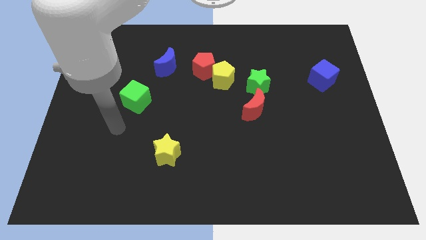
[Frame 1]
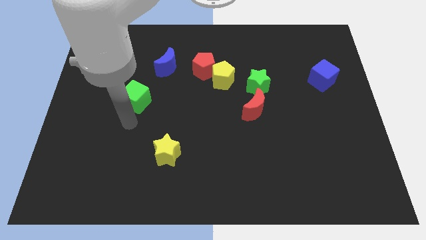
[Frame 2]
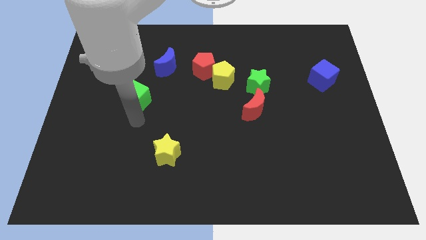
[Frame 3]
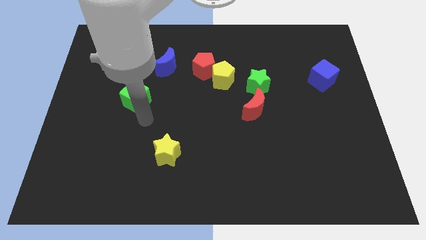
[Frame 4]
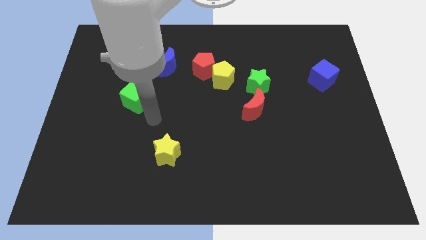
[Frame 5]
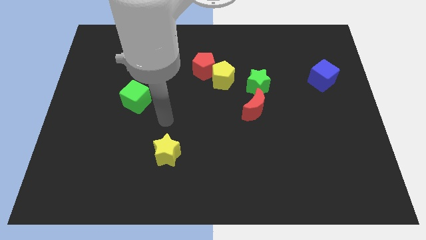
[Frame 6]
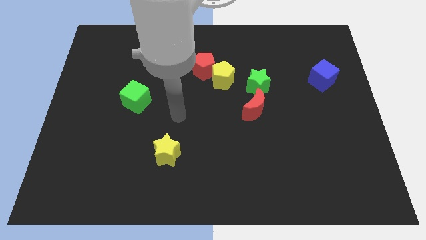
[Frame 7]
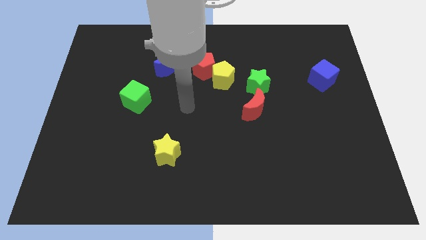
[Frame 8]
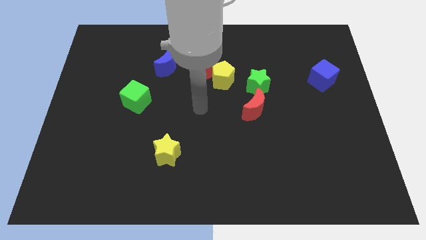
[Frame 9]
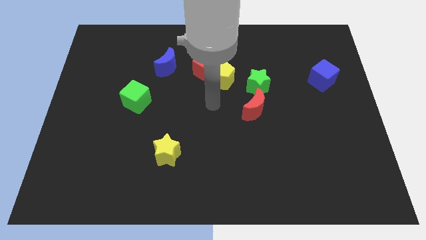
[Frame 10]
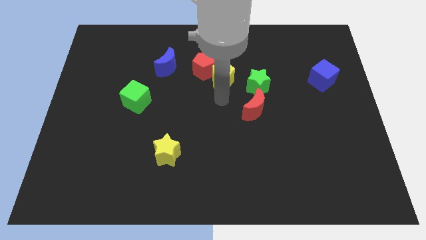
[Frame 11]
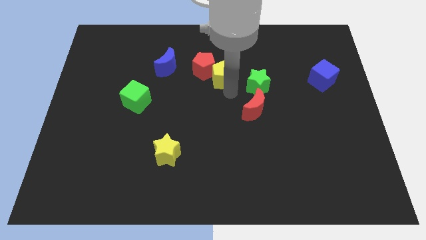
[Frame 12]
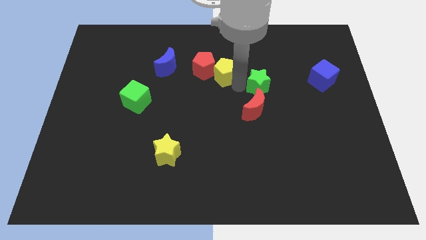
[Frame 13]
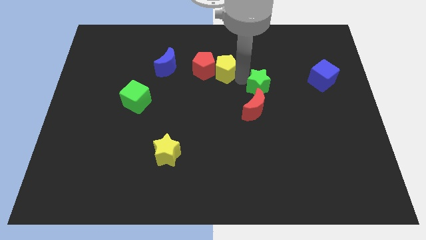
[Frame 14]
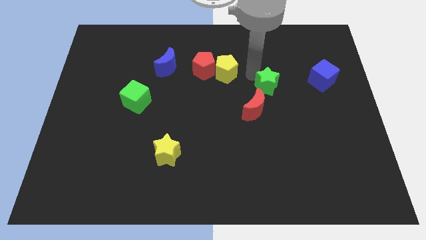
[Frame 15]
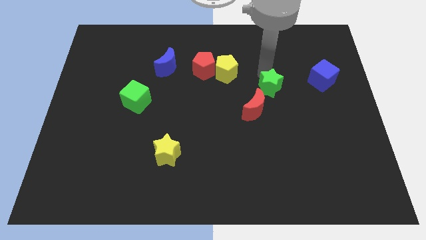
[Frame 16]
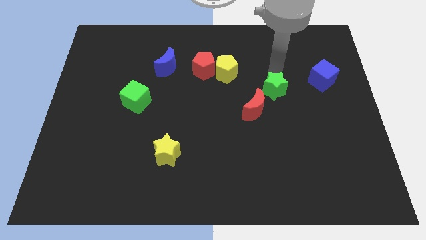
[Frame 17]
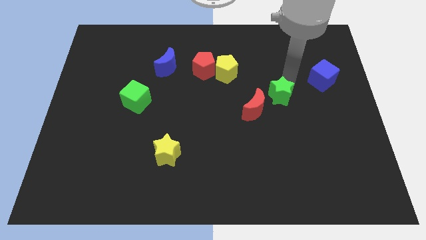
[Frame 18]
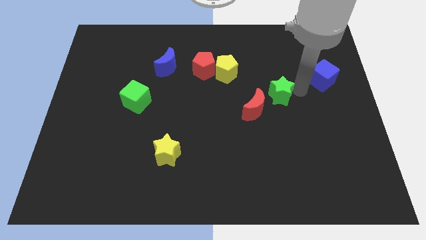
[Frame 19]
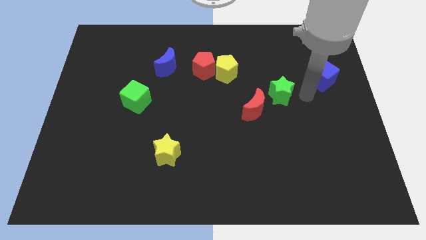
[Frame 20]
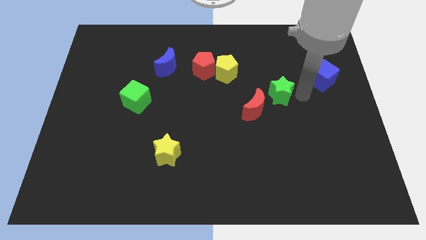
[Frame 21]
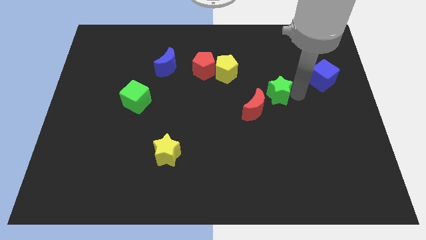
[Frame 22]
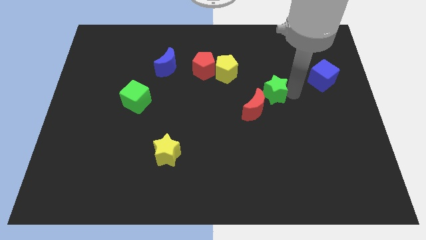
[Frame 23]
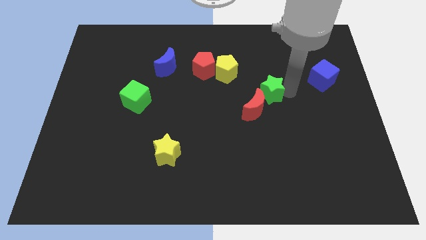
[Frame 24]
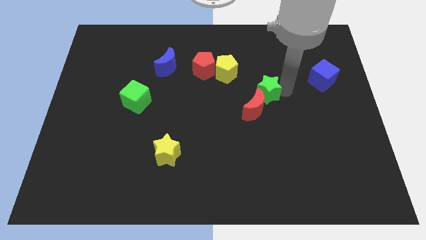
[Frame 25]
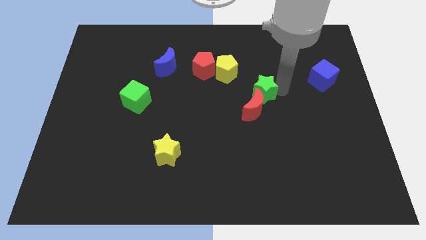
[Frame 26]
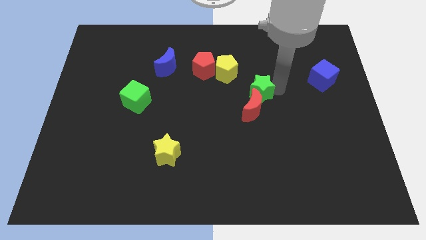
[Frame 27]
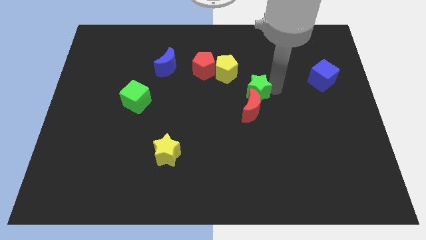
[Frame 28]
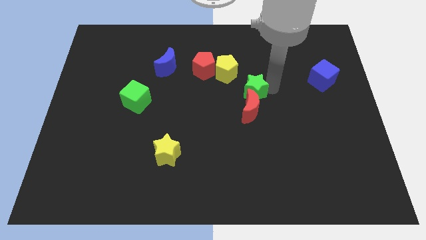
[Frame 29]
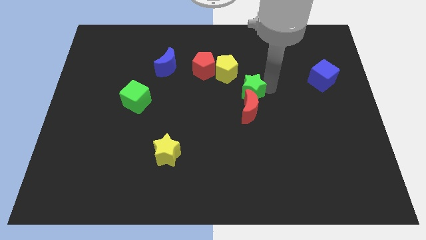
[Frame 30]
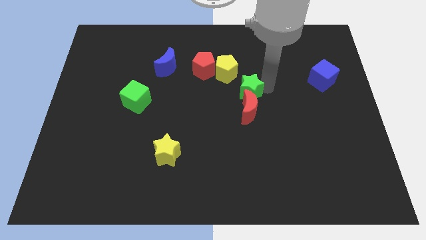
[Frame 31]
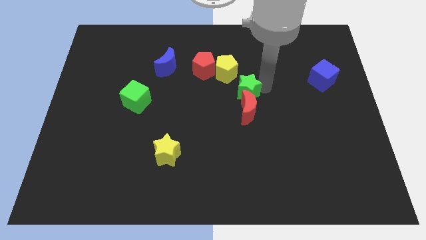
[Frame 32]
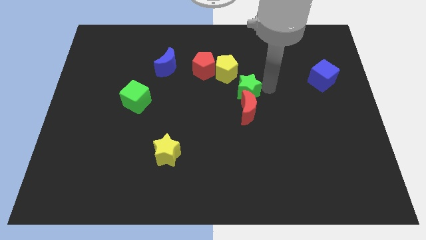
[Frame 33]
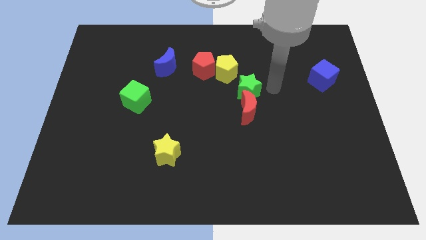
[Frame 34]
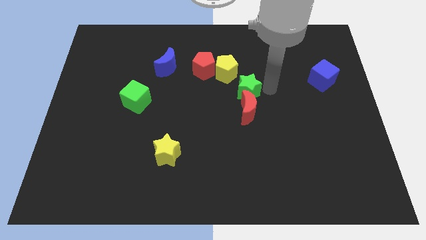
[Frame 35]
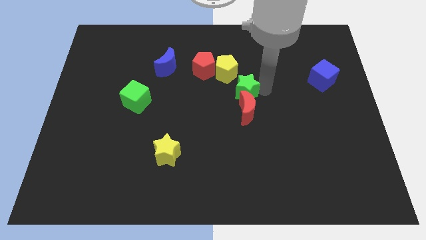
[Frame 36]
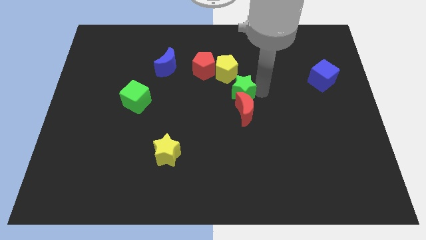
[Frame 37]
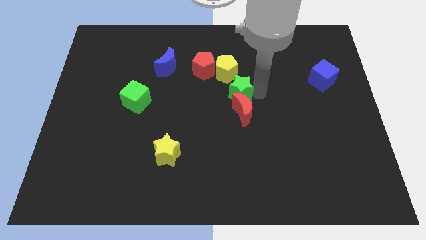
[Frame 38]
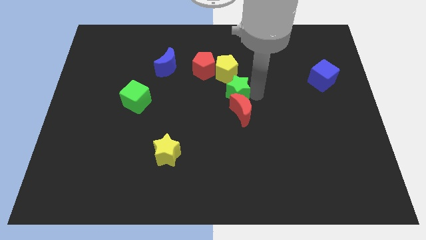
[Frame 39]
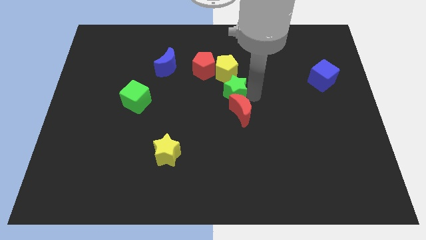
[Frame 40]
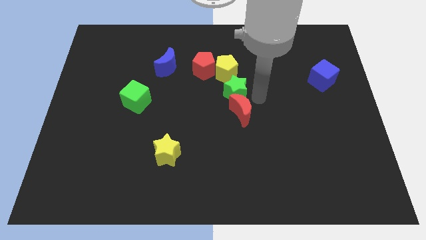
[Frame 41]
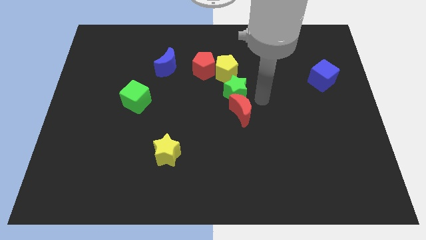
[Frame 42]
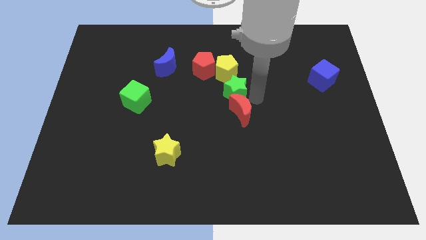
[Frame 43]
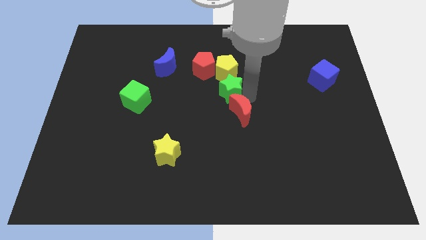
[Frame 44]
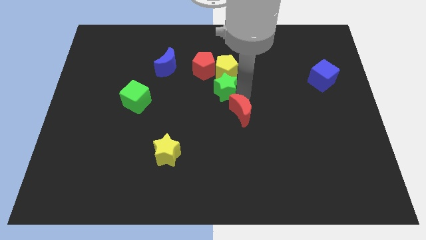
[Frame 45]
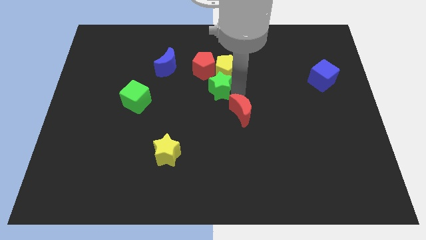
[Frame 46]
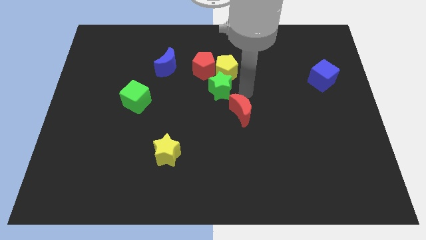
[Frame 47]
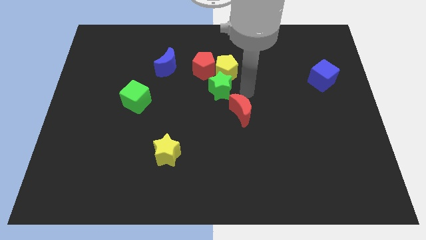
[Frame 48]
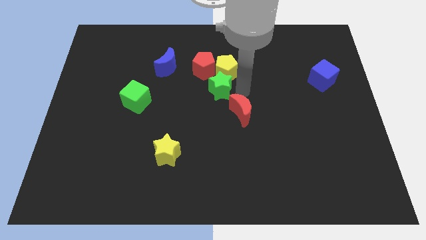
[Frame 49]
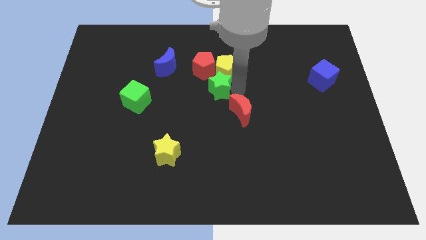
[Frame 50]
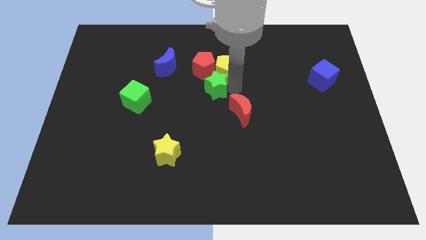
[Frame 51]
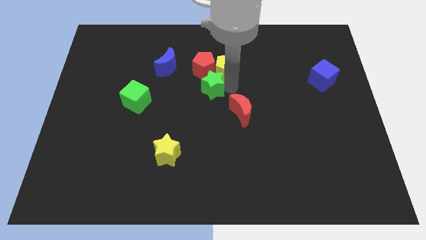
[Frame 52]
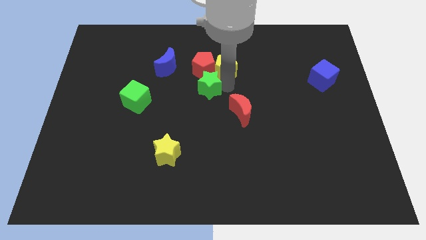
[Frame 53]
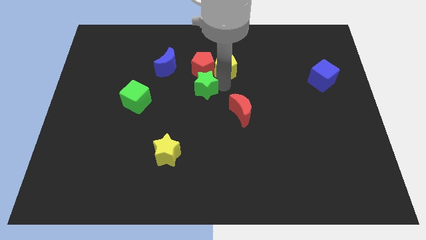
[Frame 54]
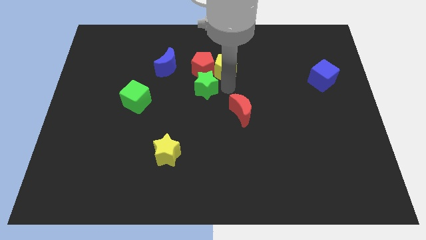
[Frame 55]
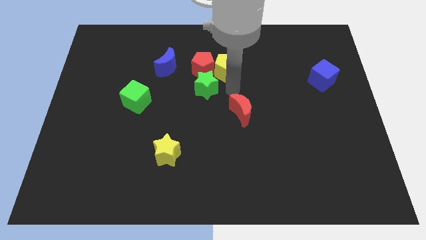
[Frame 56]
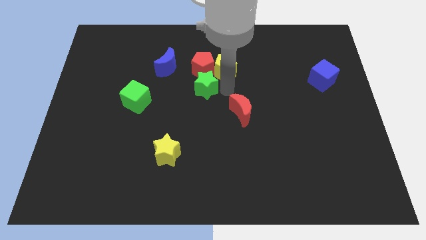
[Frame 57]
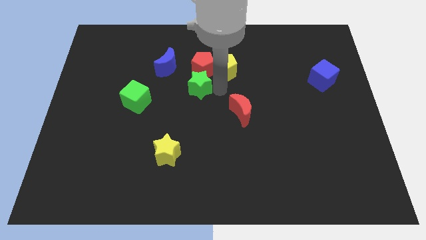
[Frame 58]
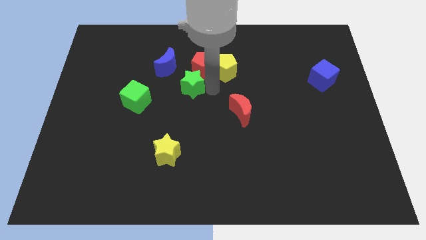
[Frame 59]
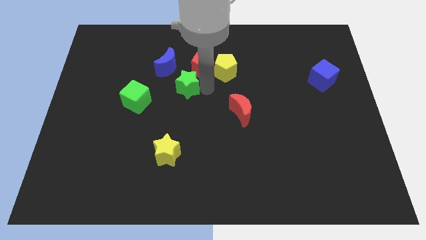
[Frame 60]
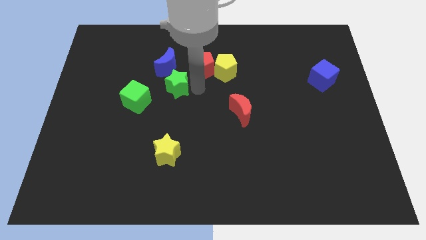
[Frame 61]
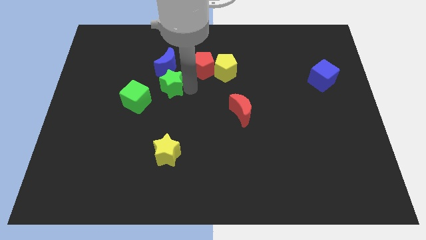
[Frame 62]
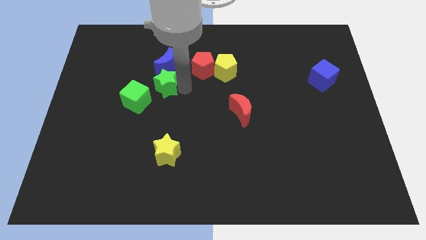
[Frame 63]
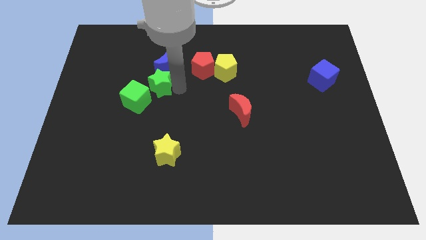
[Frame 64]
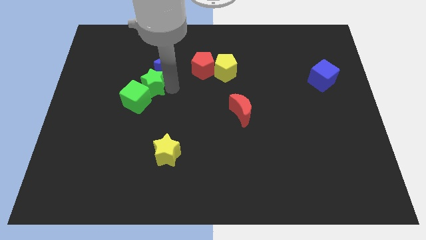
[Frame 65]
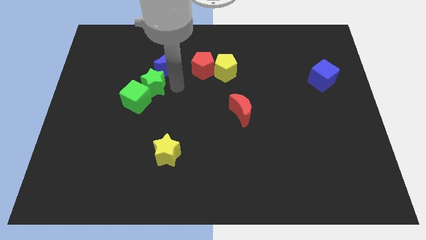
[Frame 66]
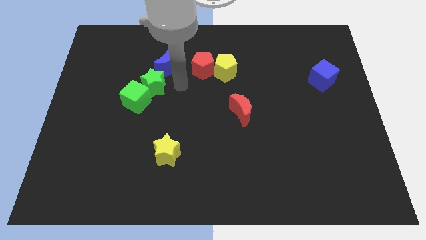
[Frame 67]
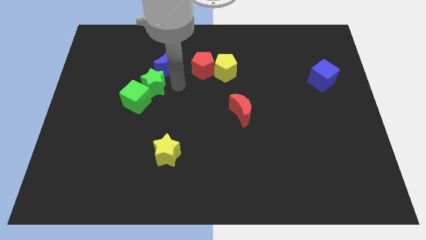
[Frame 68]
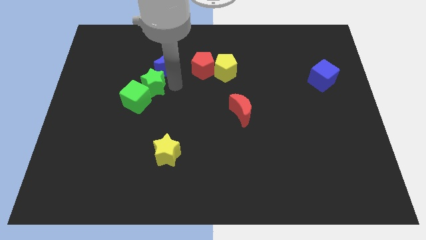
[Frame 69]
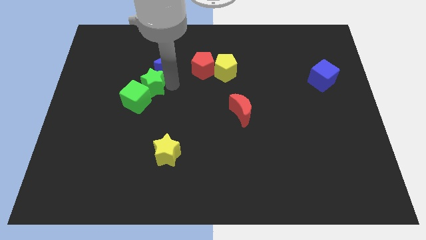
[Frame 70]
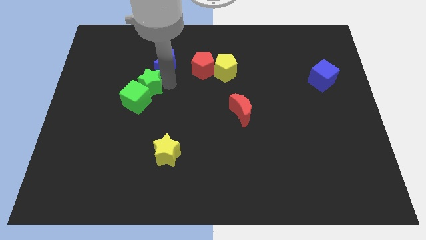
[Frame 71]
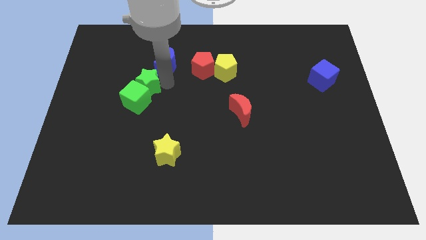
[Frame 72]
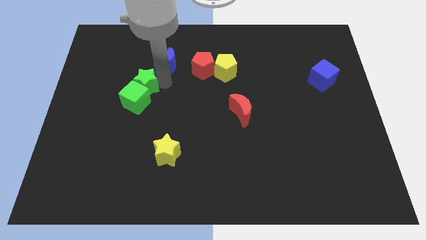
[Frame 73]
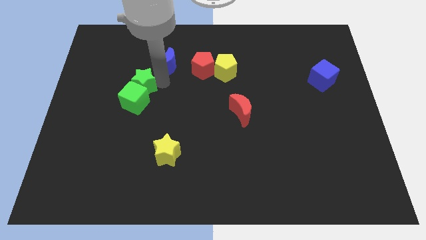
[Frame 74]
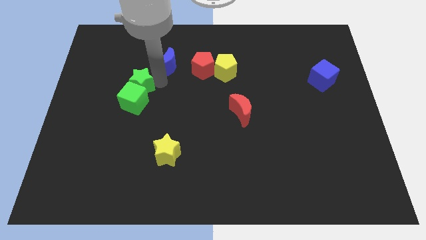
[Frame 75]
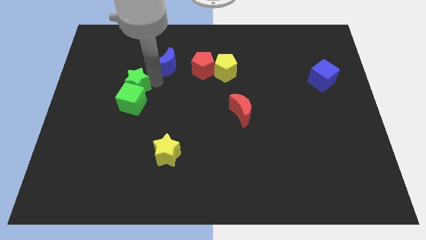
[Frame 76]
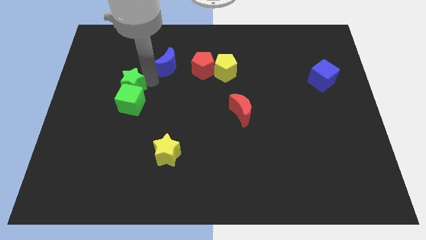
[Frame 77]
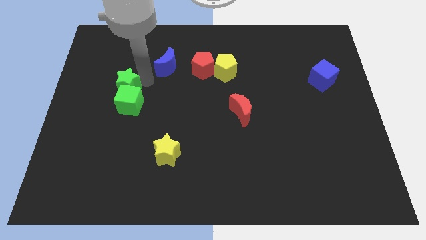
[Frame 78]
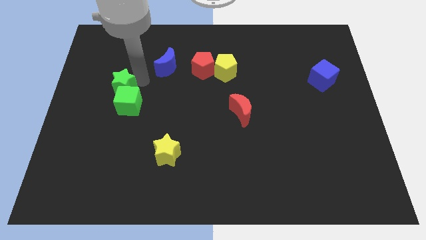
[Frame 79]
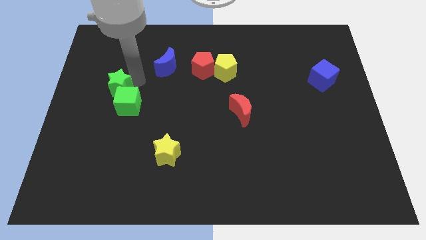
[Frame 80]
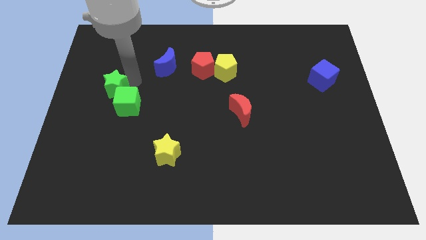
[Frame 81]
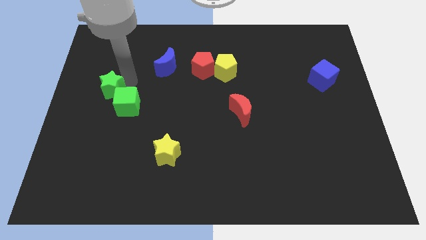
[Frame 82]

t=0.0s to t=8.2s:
put the green star to the left of the green cube
